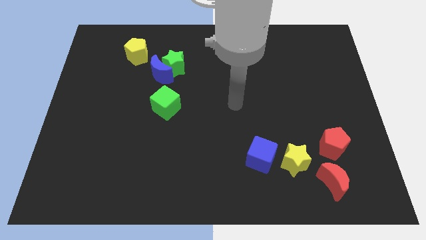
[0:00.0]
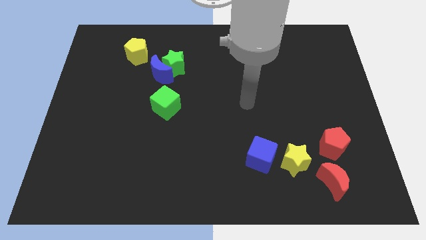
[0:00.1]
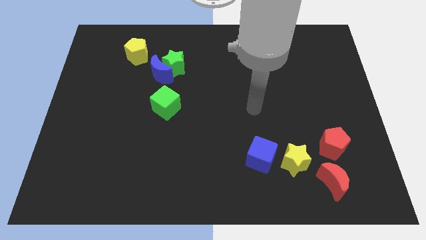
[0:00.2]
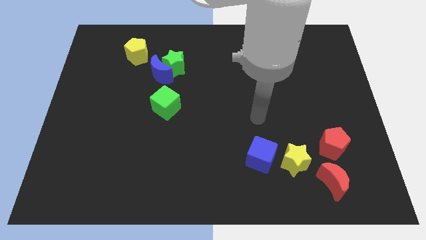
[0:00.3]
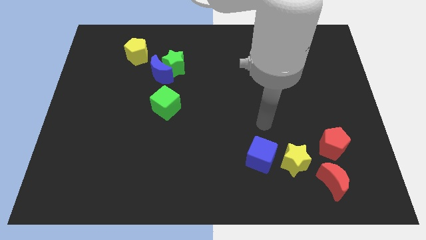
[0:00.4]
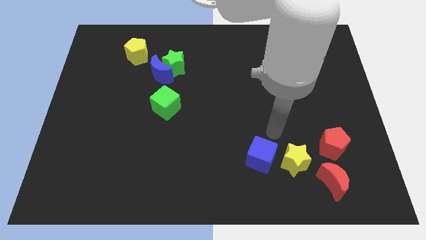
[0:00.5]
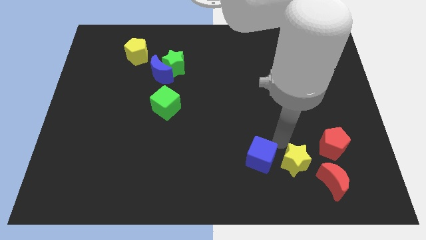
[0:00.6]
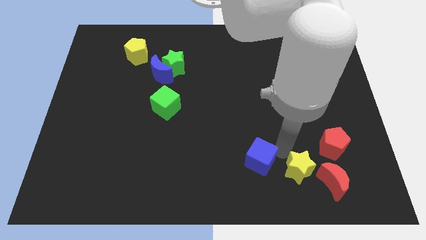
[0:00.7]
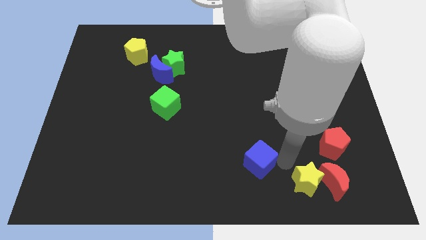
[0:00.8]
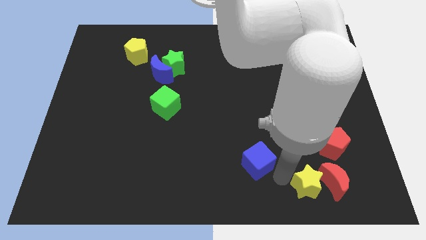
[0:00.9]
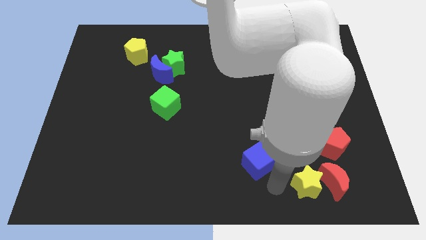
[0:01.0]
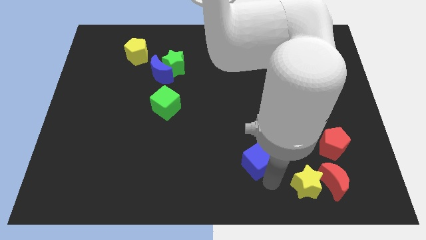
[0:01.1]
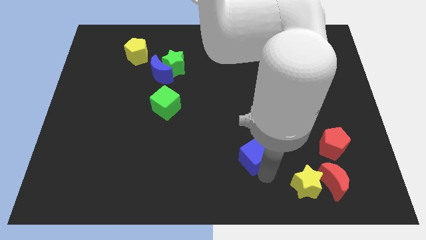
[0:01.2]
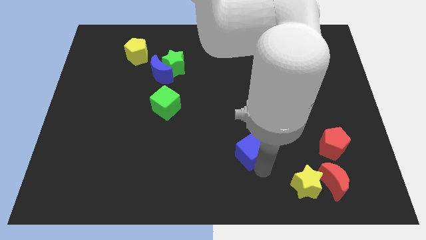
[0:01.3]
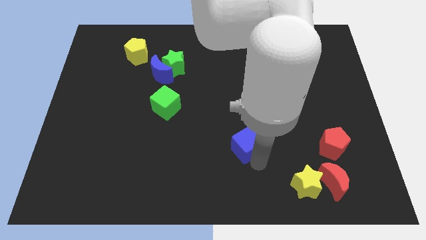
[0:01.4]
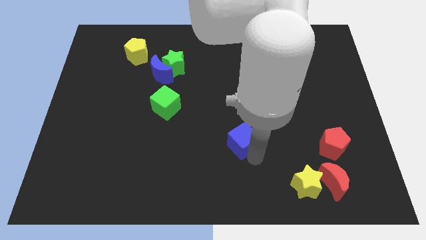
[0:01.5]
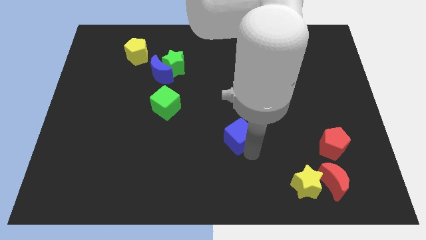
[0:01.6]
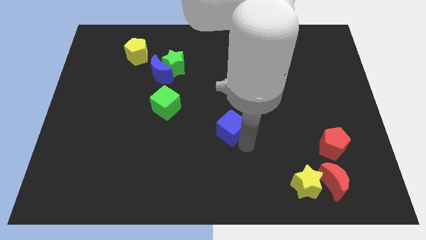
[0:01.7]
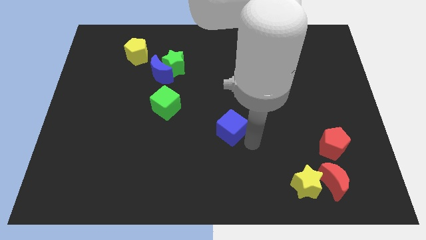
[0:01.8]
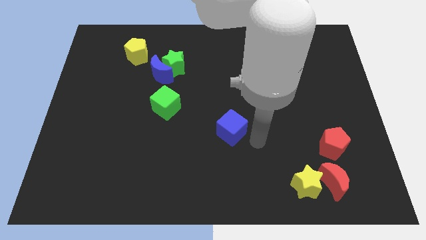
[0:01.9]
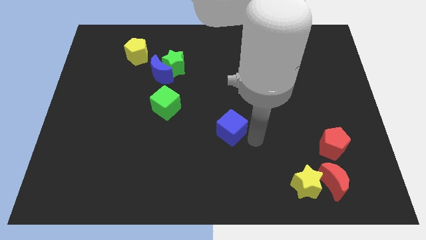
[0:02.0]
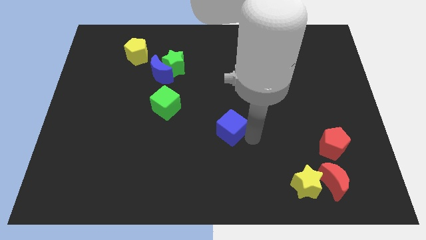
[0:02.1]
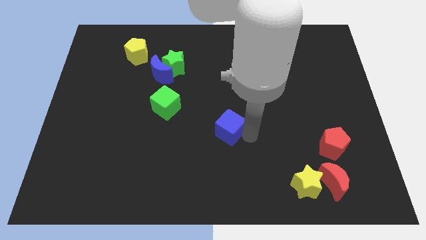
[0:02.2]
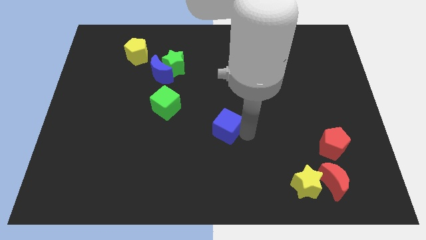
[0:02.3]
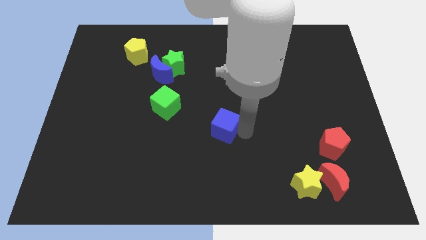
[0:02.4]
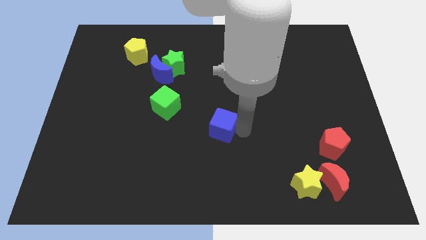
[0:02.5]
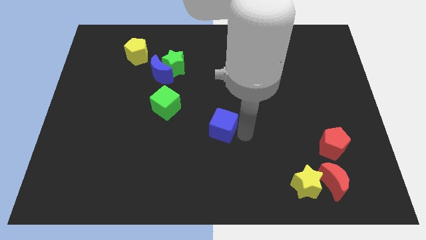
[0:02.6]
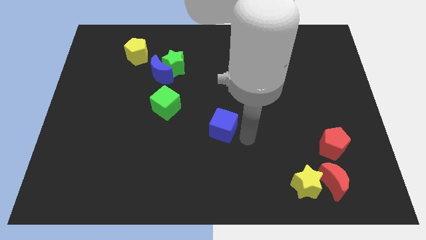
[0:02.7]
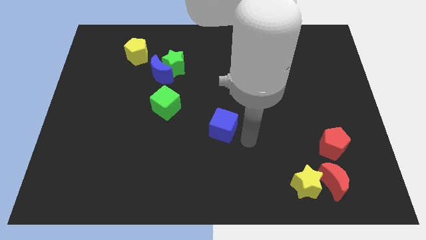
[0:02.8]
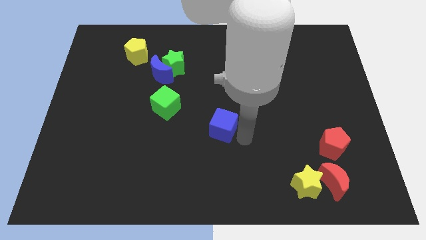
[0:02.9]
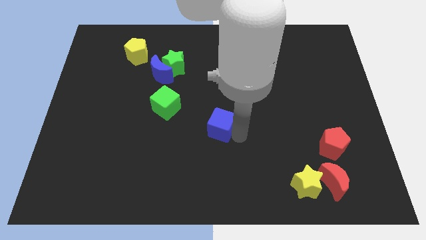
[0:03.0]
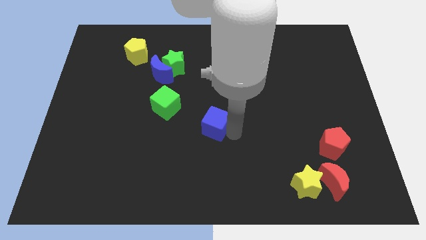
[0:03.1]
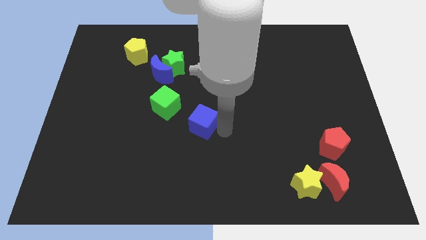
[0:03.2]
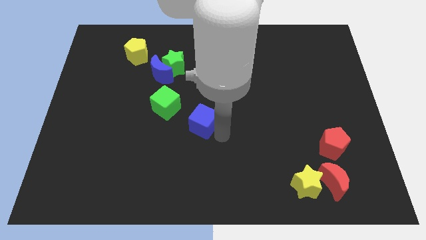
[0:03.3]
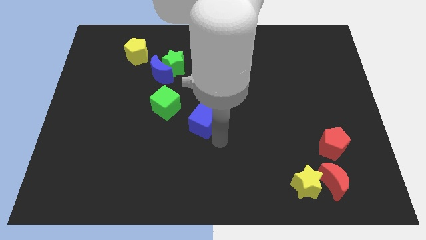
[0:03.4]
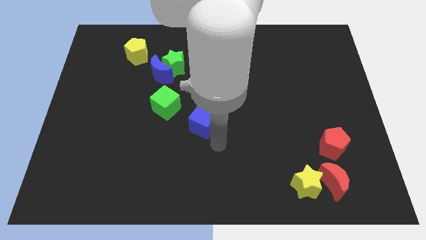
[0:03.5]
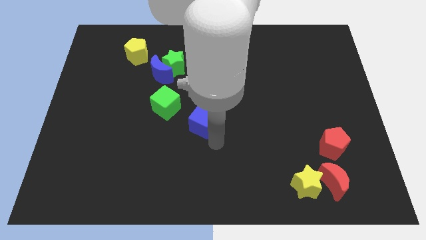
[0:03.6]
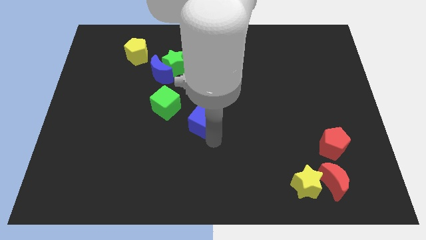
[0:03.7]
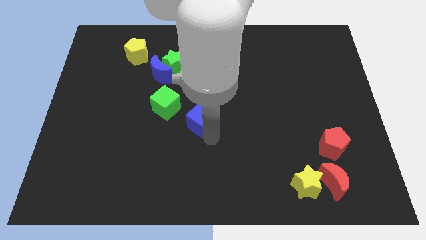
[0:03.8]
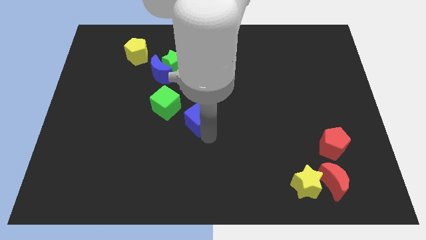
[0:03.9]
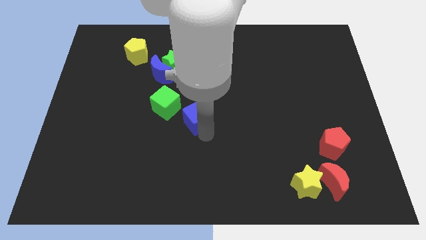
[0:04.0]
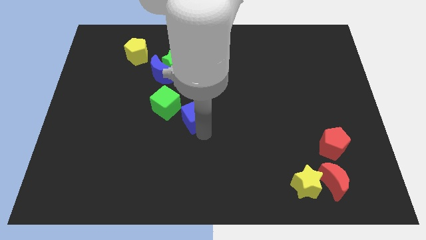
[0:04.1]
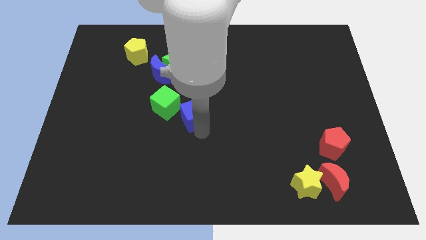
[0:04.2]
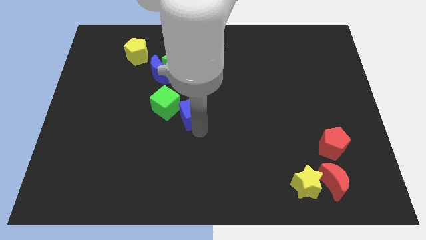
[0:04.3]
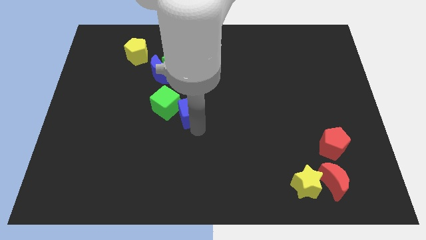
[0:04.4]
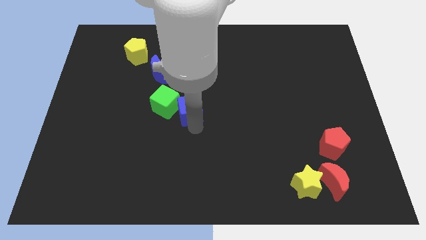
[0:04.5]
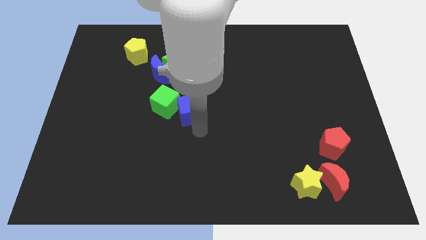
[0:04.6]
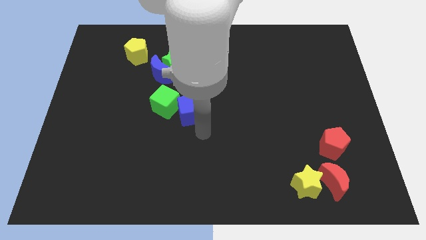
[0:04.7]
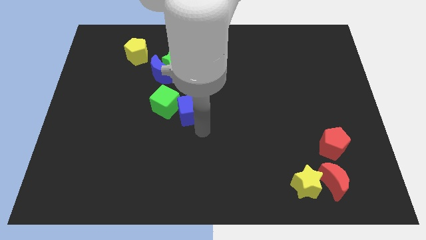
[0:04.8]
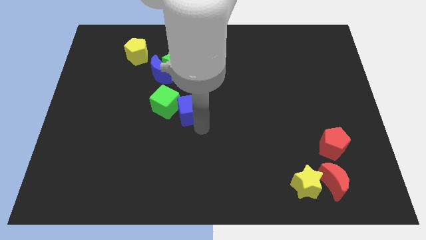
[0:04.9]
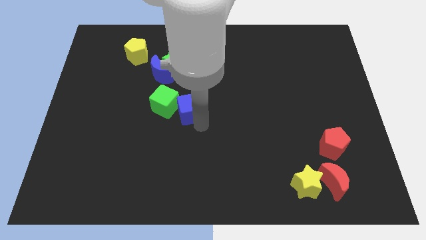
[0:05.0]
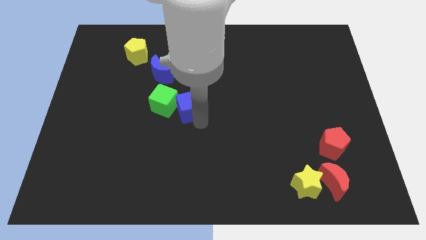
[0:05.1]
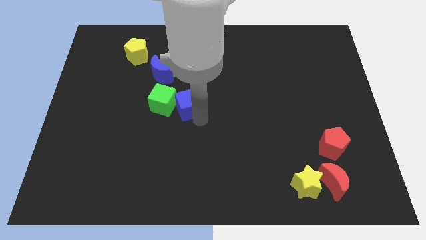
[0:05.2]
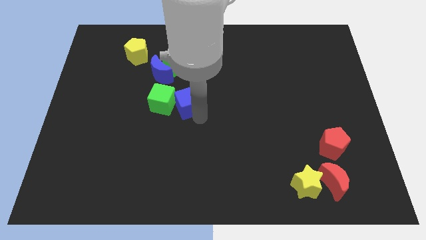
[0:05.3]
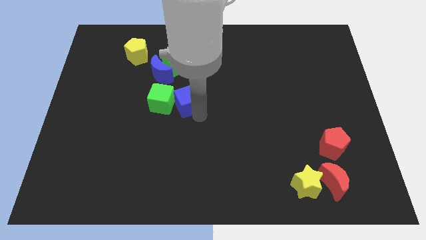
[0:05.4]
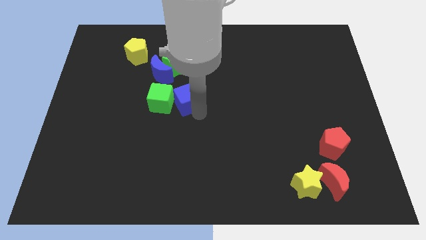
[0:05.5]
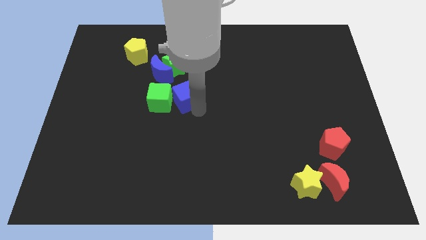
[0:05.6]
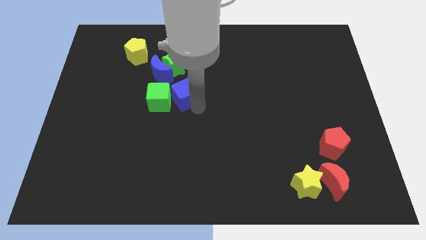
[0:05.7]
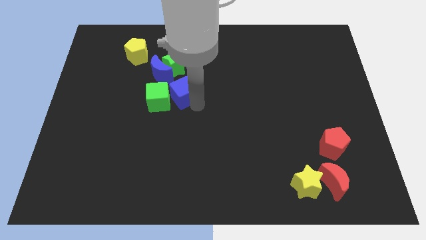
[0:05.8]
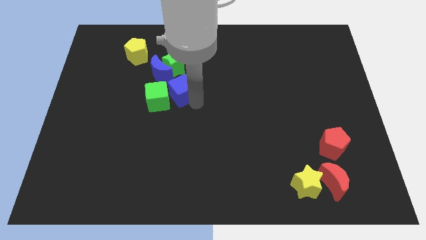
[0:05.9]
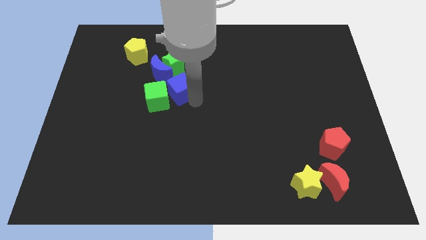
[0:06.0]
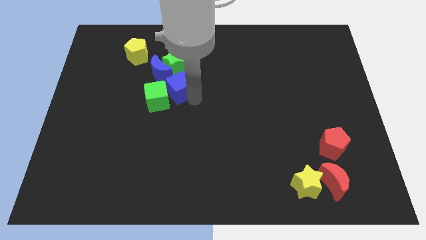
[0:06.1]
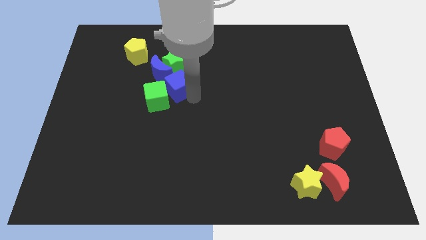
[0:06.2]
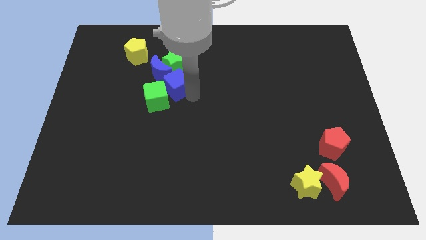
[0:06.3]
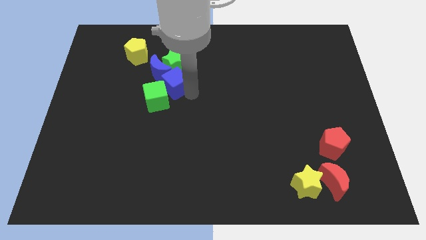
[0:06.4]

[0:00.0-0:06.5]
push the blue cube towards the blue moon
